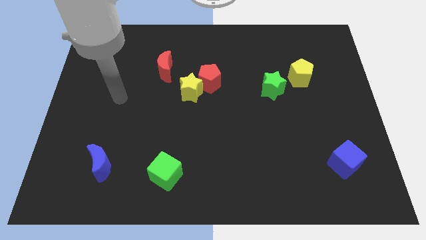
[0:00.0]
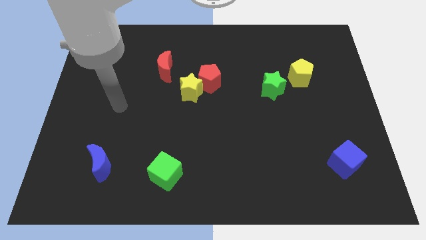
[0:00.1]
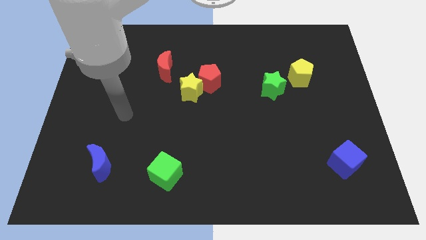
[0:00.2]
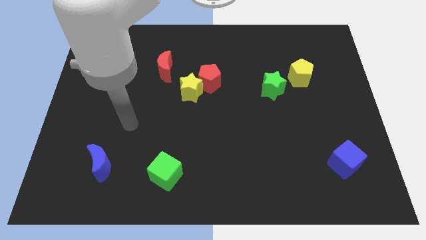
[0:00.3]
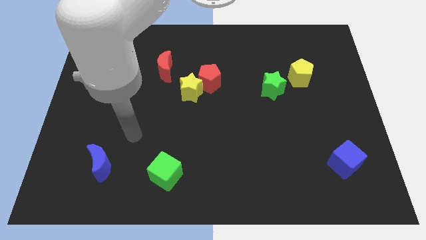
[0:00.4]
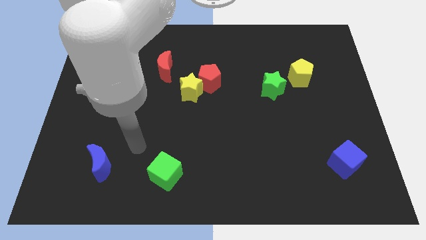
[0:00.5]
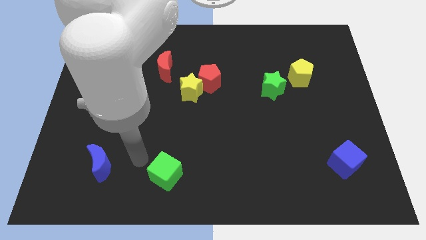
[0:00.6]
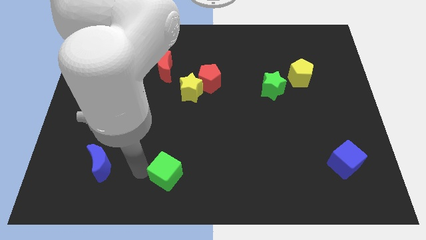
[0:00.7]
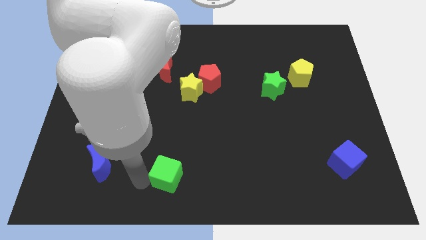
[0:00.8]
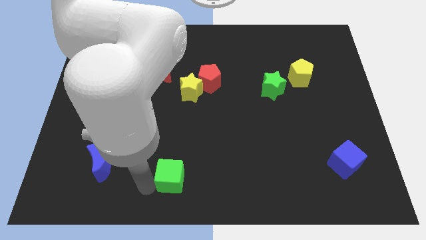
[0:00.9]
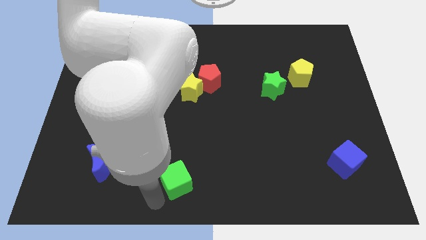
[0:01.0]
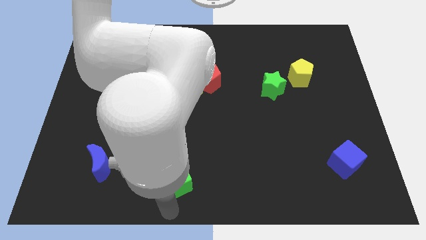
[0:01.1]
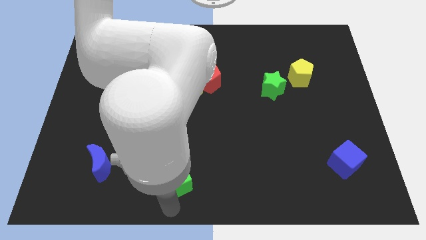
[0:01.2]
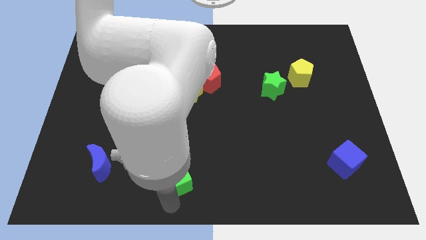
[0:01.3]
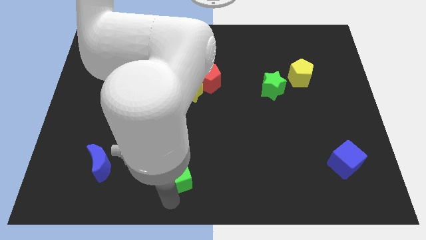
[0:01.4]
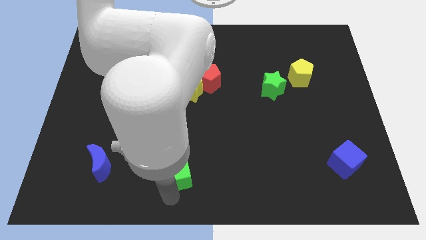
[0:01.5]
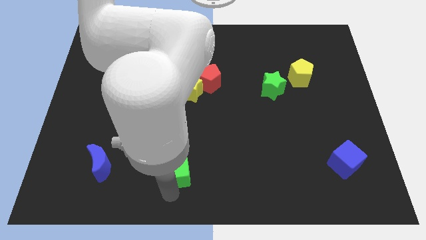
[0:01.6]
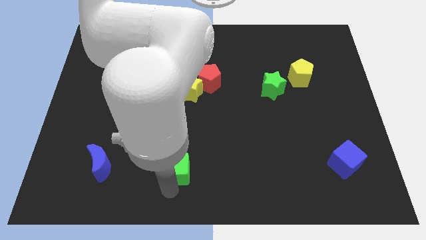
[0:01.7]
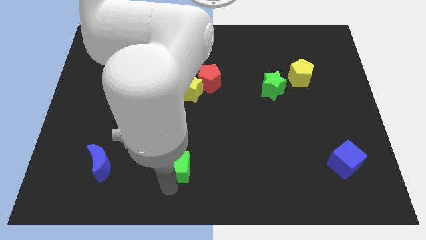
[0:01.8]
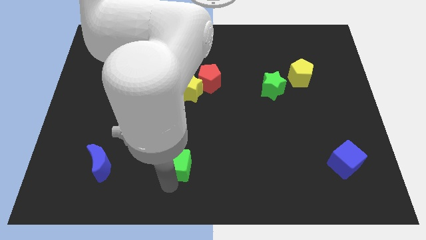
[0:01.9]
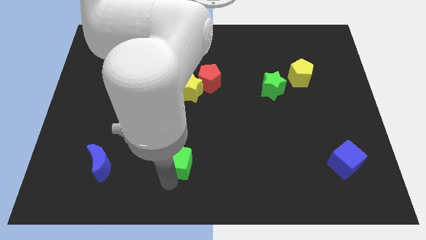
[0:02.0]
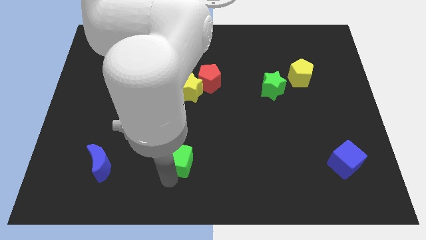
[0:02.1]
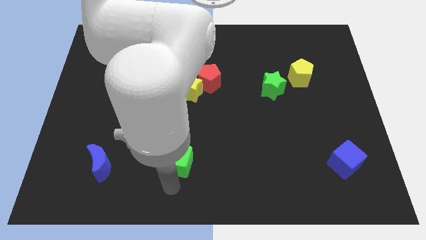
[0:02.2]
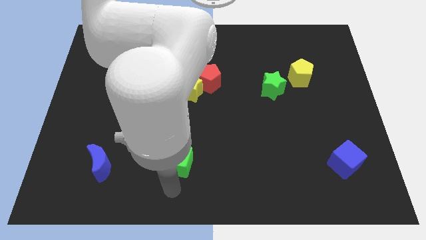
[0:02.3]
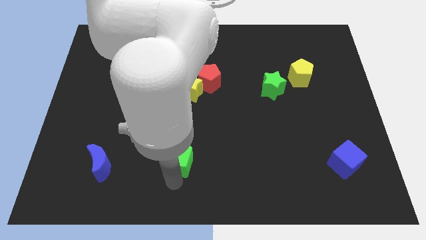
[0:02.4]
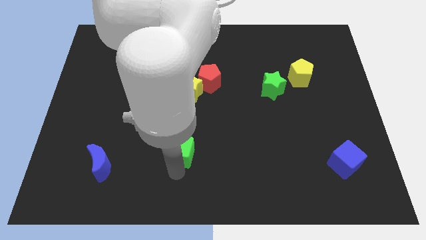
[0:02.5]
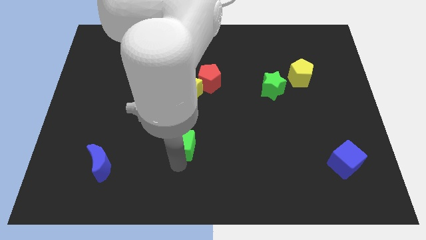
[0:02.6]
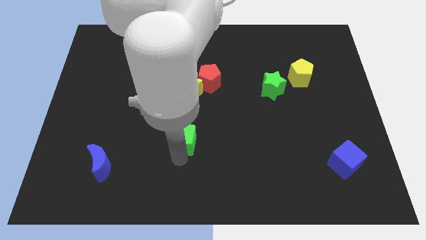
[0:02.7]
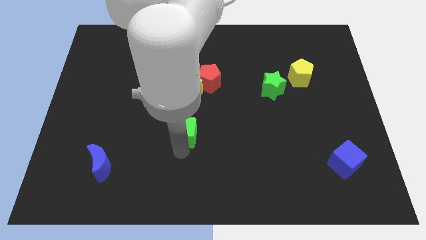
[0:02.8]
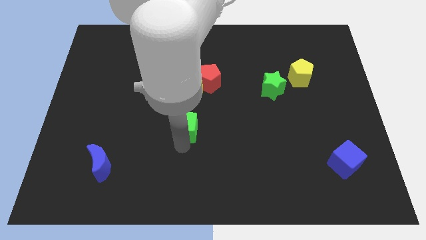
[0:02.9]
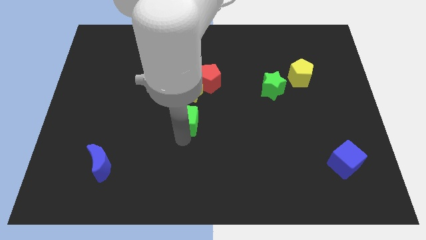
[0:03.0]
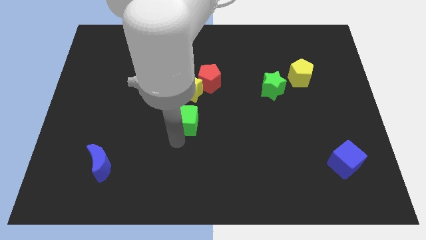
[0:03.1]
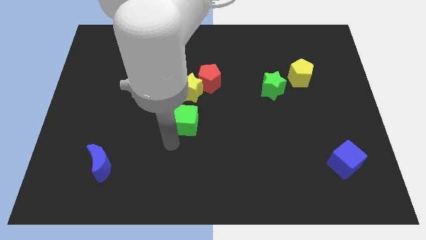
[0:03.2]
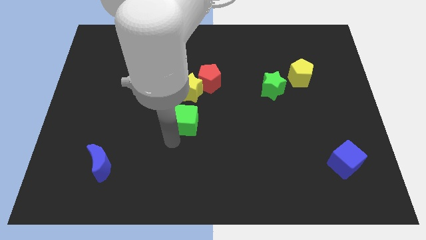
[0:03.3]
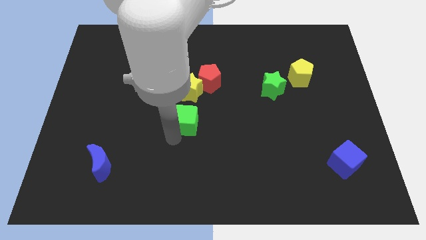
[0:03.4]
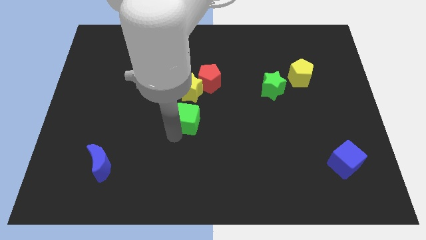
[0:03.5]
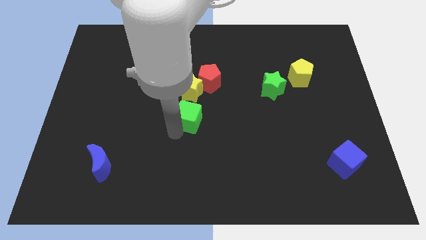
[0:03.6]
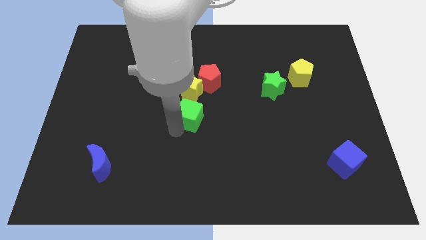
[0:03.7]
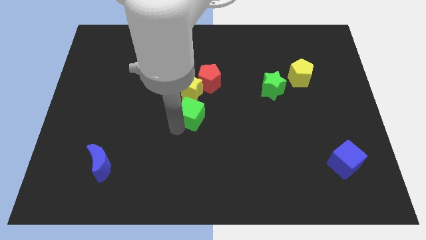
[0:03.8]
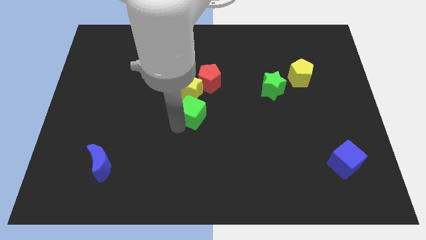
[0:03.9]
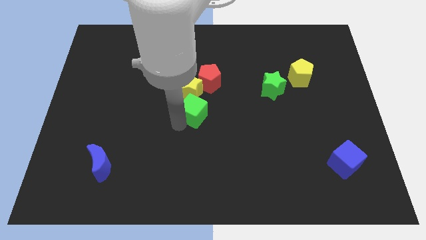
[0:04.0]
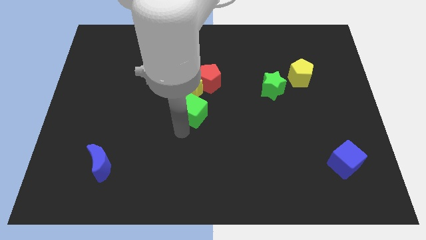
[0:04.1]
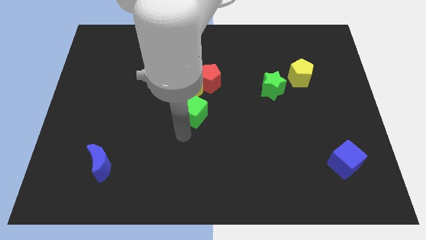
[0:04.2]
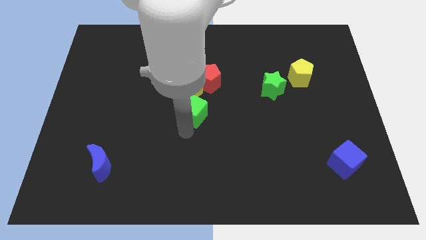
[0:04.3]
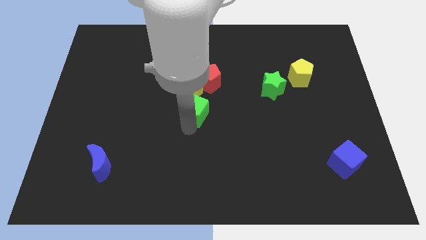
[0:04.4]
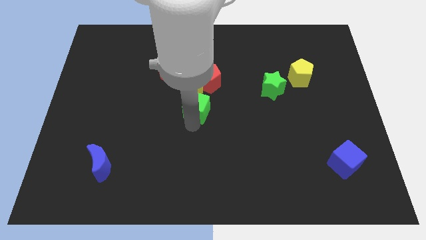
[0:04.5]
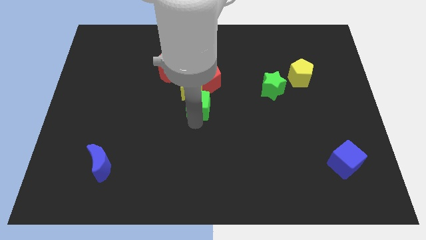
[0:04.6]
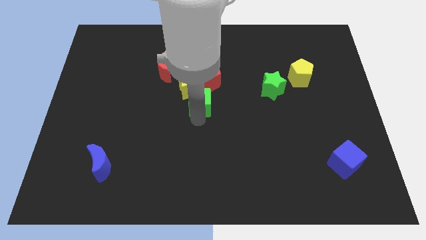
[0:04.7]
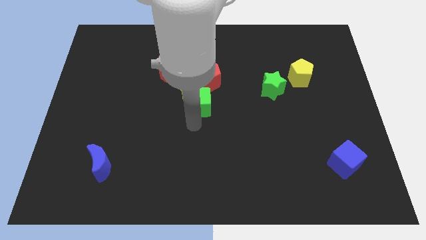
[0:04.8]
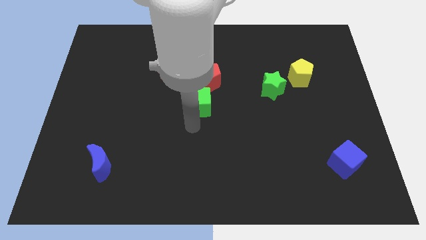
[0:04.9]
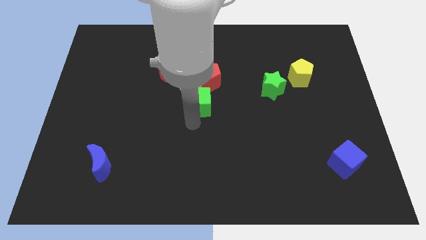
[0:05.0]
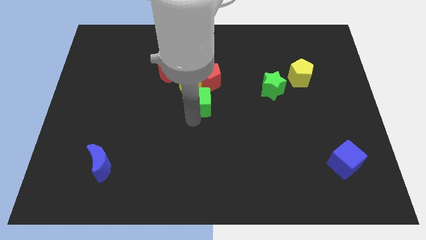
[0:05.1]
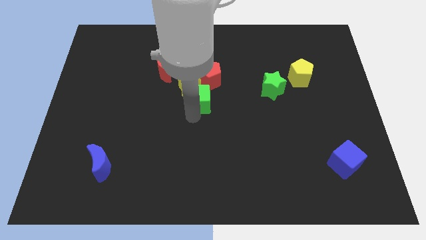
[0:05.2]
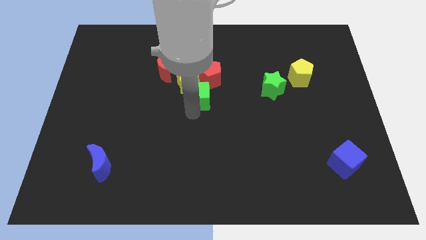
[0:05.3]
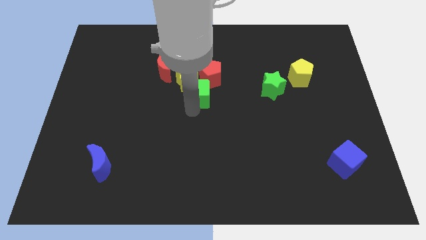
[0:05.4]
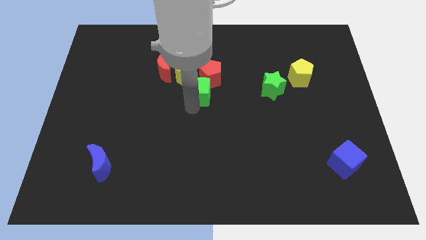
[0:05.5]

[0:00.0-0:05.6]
slide the green cube to the red pentagon
